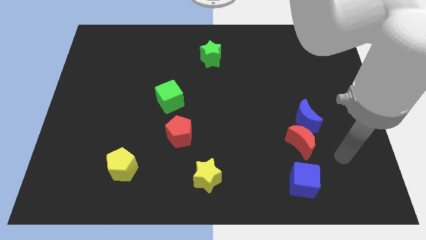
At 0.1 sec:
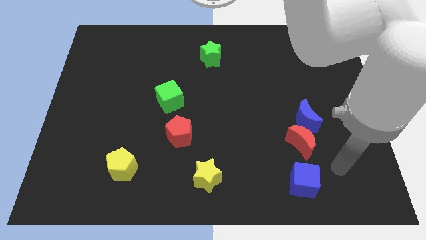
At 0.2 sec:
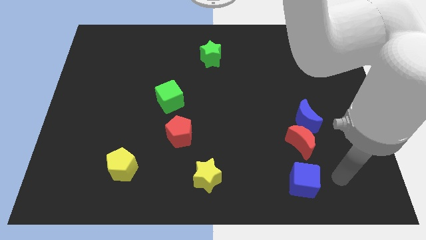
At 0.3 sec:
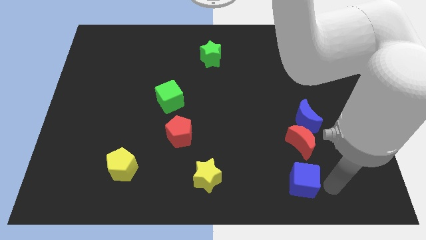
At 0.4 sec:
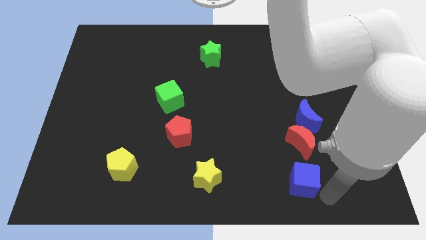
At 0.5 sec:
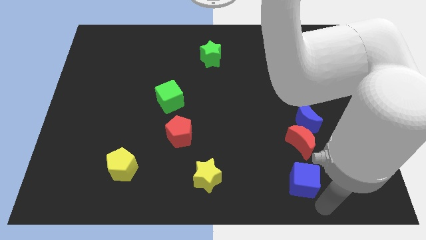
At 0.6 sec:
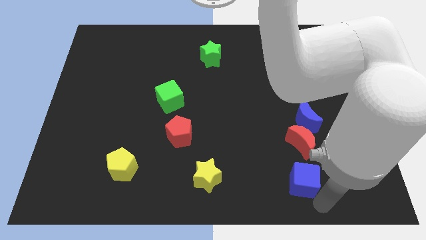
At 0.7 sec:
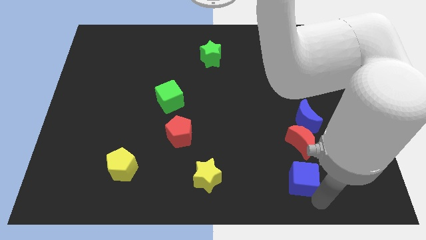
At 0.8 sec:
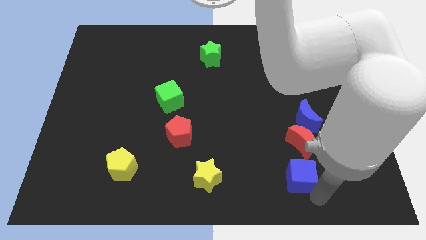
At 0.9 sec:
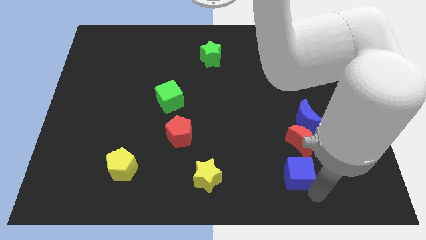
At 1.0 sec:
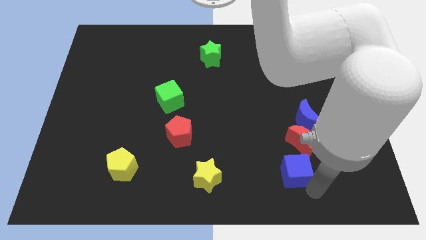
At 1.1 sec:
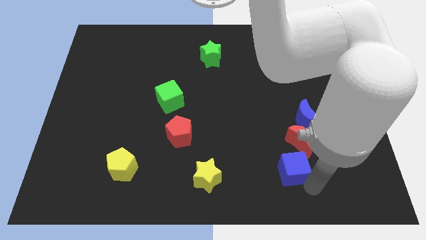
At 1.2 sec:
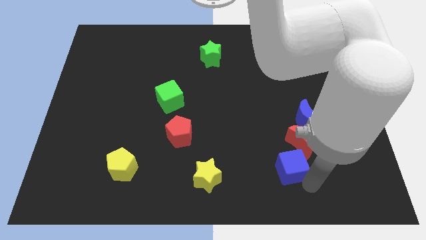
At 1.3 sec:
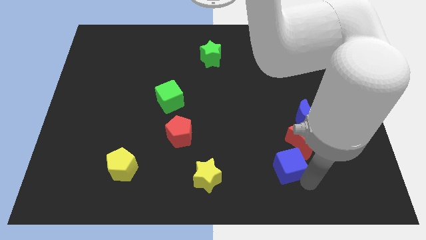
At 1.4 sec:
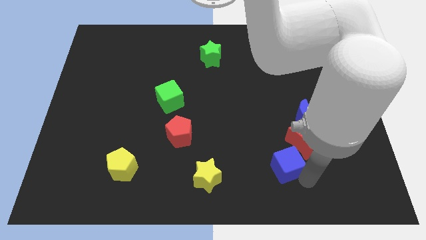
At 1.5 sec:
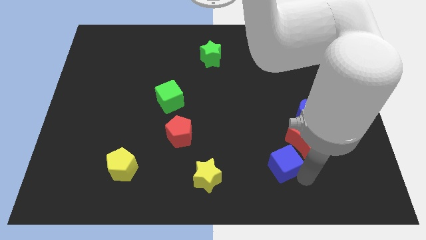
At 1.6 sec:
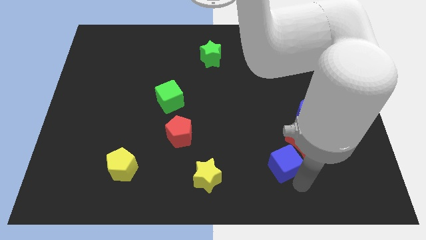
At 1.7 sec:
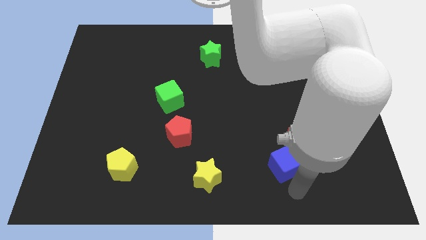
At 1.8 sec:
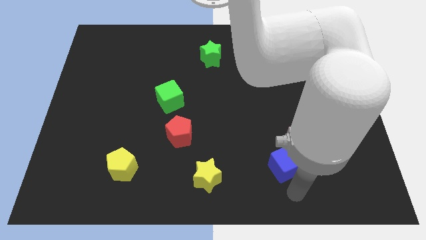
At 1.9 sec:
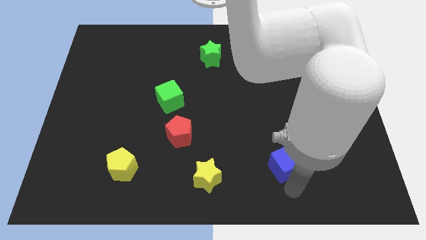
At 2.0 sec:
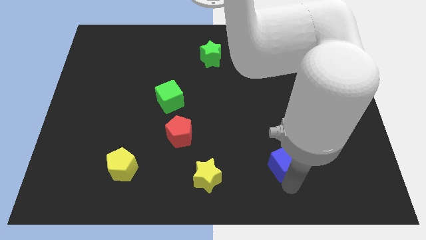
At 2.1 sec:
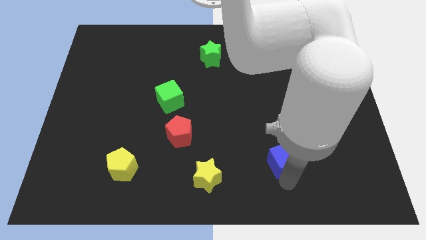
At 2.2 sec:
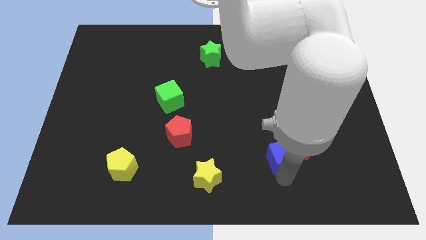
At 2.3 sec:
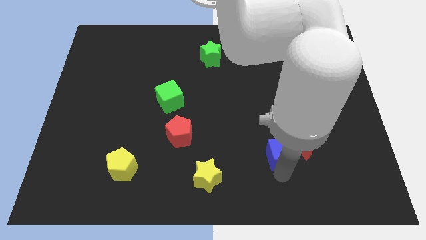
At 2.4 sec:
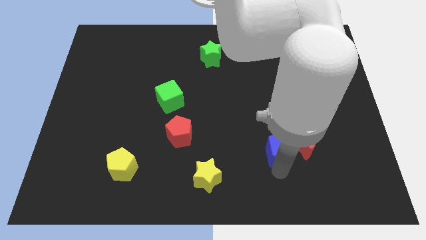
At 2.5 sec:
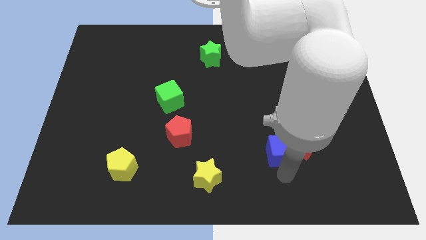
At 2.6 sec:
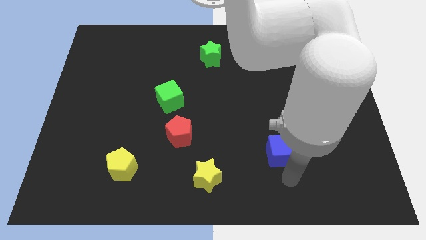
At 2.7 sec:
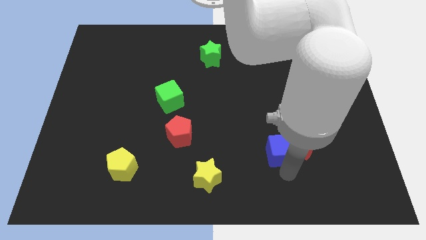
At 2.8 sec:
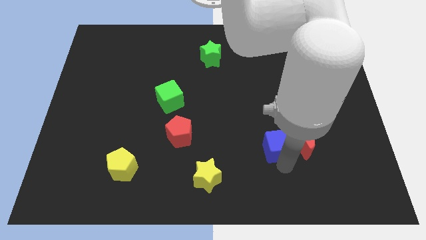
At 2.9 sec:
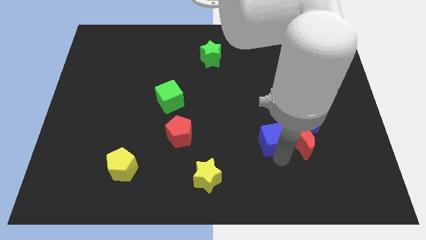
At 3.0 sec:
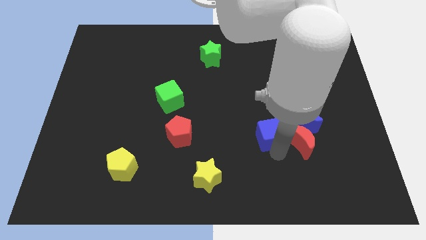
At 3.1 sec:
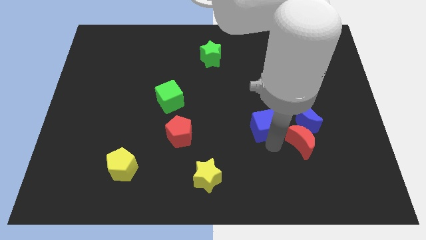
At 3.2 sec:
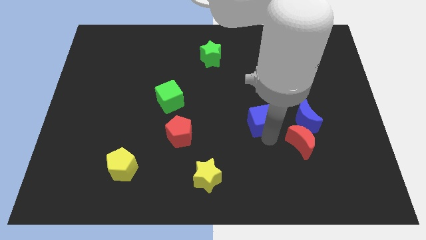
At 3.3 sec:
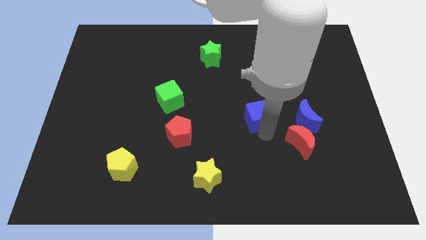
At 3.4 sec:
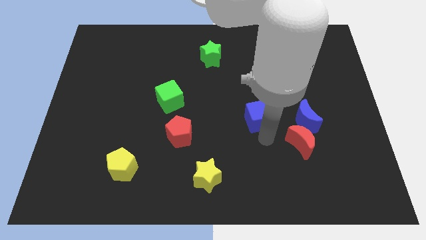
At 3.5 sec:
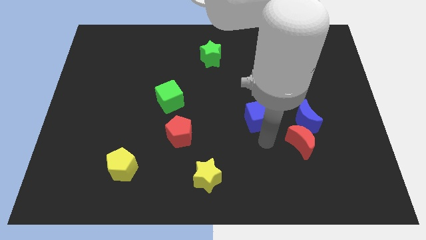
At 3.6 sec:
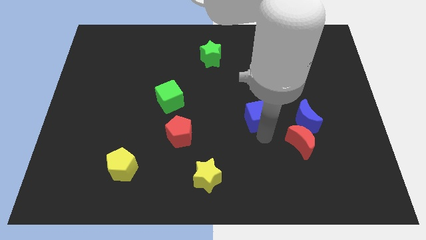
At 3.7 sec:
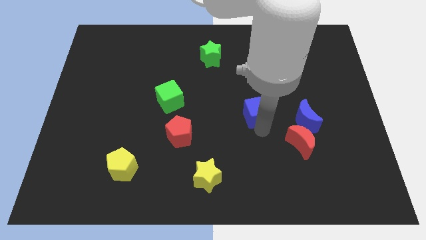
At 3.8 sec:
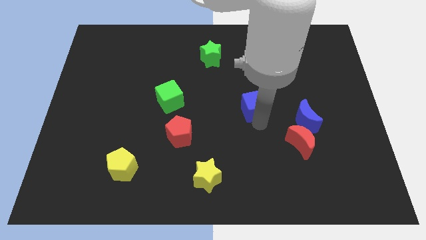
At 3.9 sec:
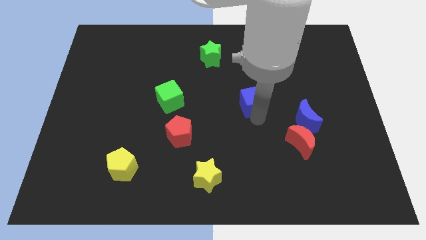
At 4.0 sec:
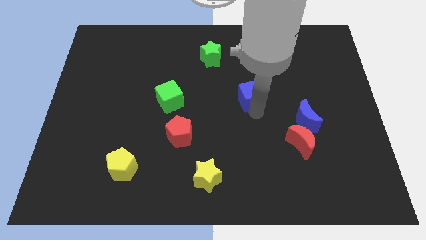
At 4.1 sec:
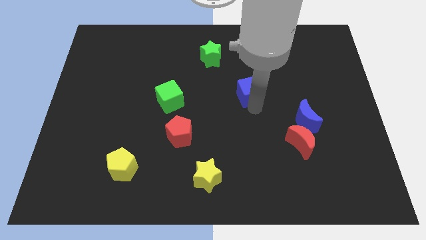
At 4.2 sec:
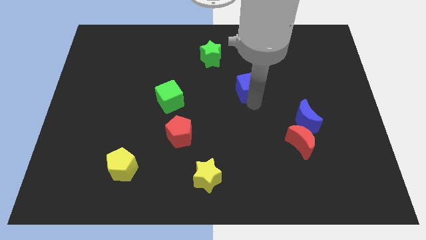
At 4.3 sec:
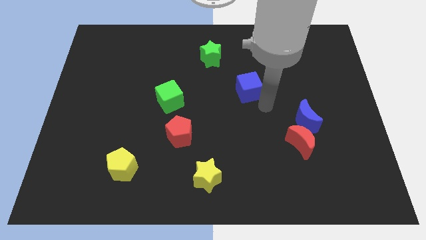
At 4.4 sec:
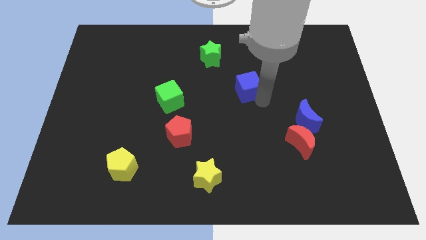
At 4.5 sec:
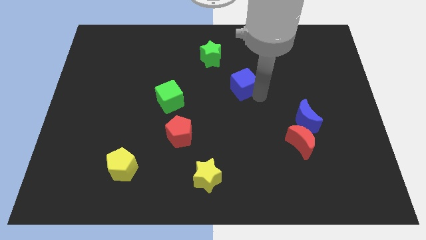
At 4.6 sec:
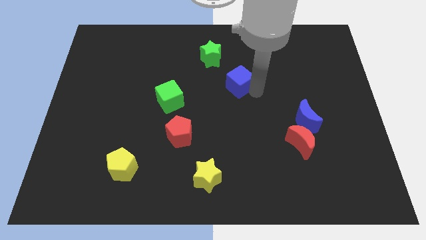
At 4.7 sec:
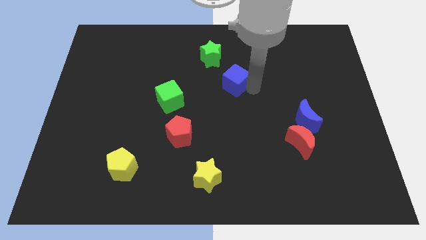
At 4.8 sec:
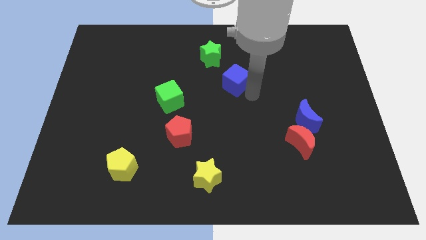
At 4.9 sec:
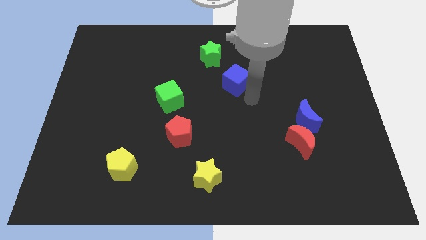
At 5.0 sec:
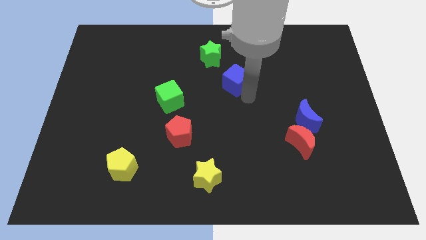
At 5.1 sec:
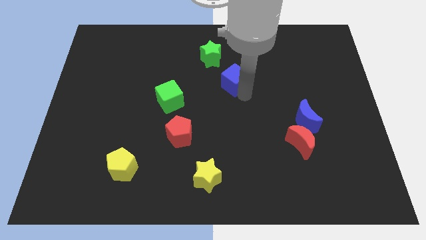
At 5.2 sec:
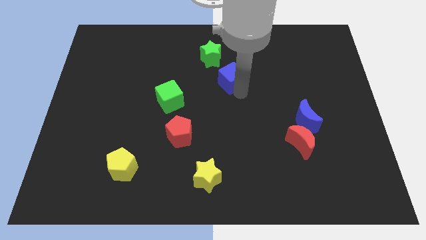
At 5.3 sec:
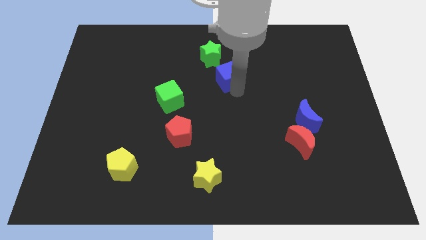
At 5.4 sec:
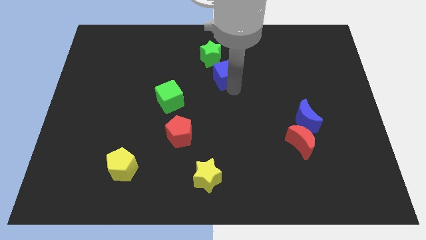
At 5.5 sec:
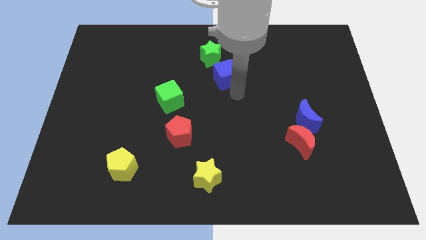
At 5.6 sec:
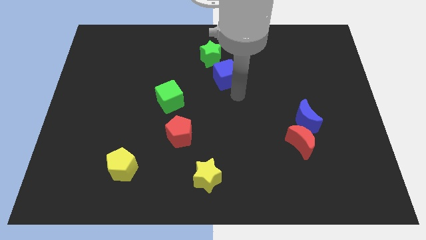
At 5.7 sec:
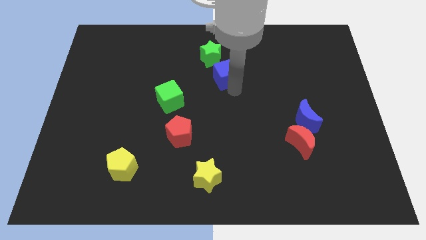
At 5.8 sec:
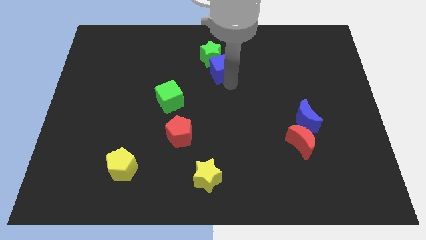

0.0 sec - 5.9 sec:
slide the blue cube close to the green star

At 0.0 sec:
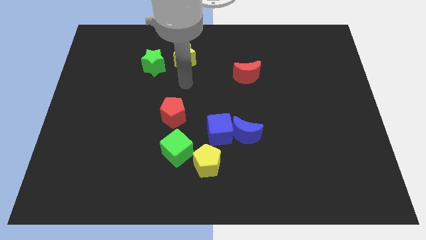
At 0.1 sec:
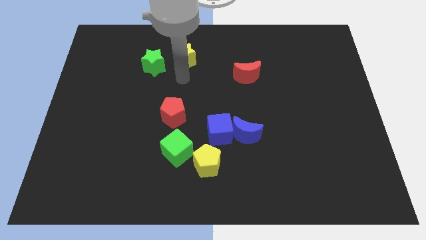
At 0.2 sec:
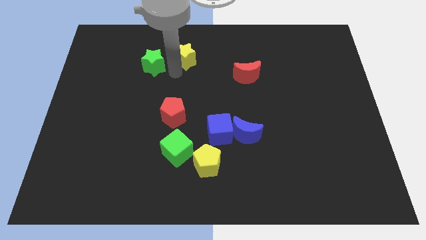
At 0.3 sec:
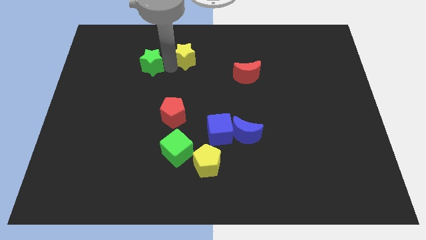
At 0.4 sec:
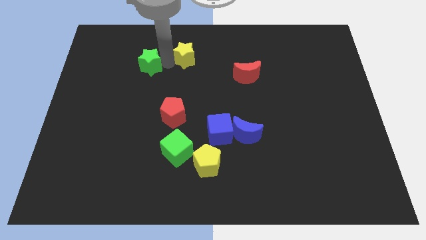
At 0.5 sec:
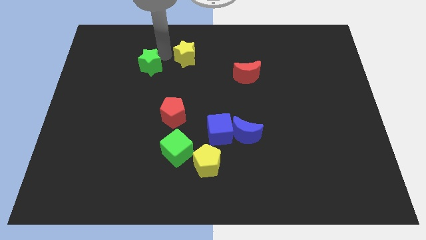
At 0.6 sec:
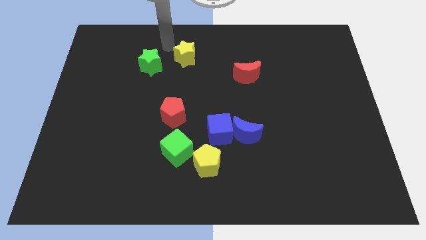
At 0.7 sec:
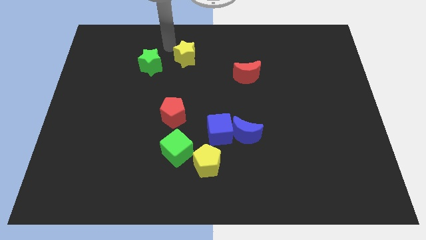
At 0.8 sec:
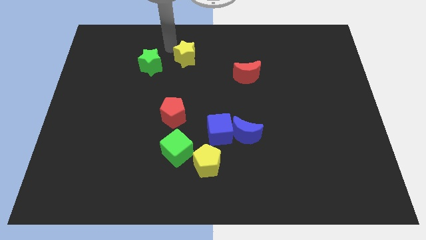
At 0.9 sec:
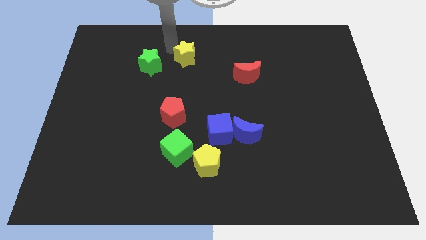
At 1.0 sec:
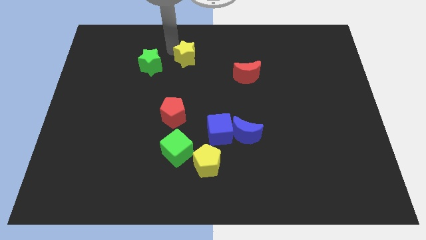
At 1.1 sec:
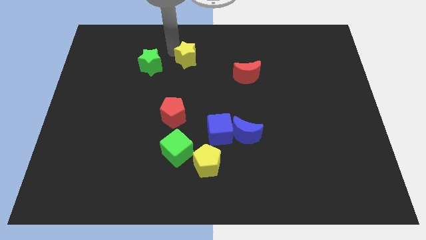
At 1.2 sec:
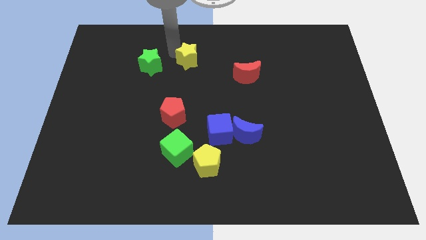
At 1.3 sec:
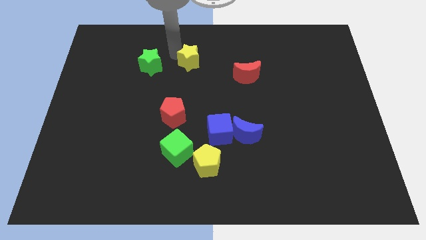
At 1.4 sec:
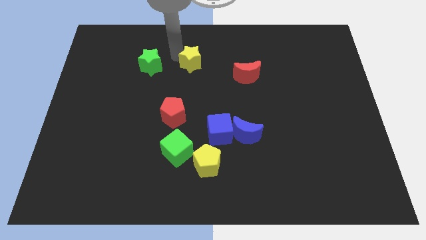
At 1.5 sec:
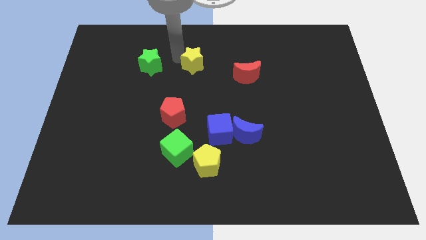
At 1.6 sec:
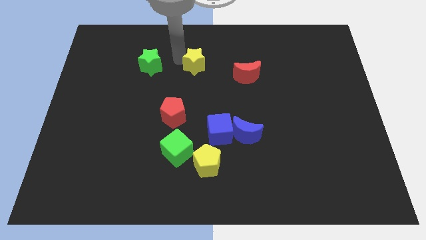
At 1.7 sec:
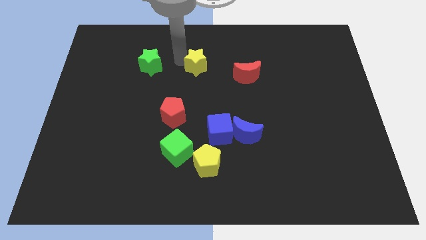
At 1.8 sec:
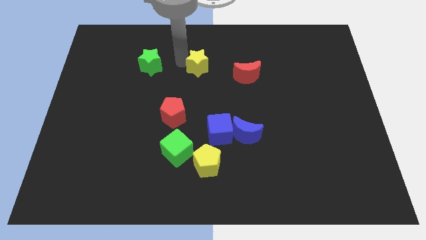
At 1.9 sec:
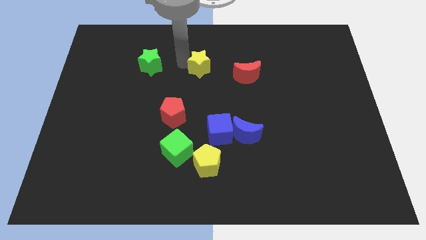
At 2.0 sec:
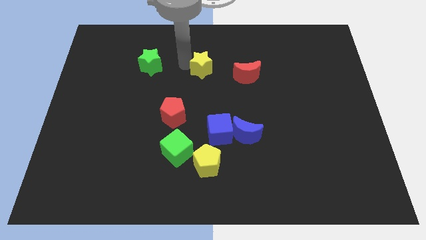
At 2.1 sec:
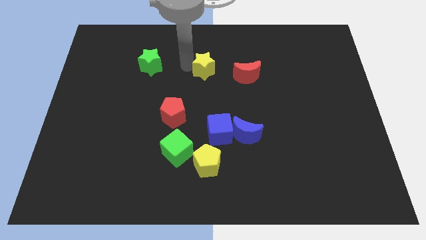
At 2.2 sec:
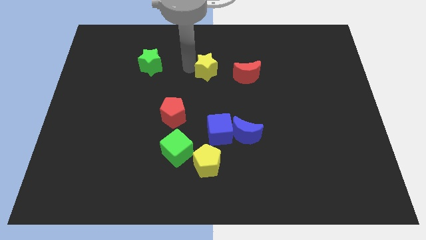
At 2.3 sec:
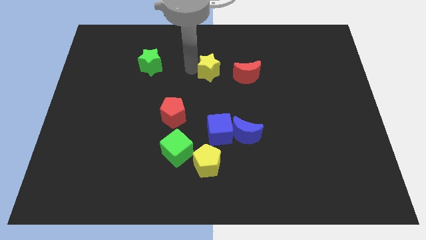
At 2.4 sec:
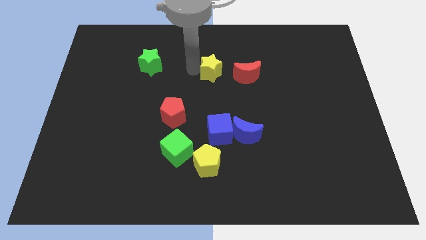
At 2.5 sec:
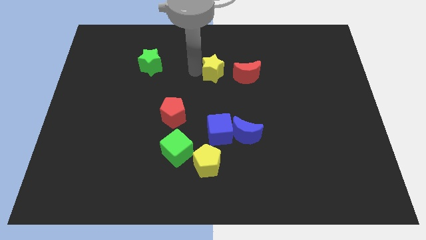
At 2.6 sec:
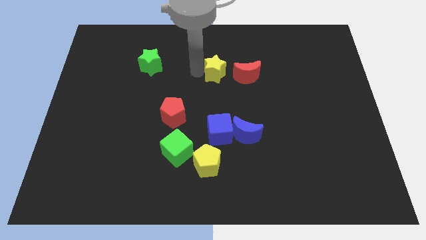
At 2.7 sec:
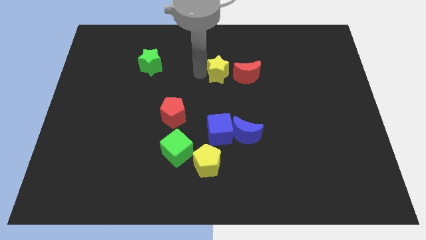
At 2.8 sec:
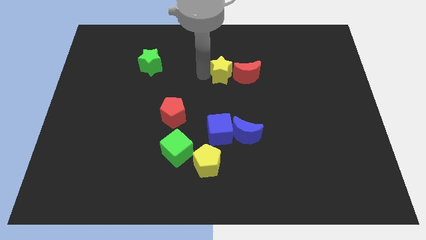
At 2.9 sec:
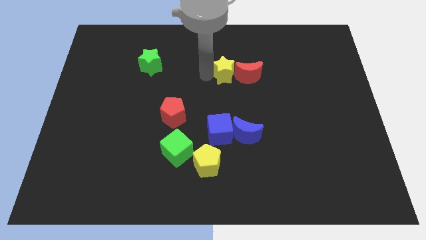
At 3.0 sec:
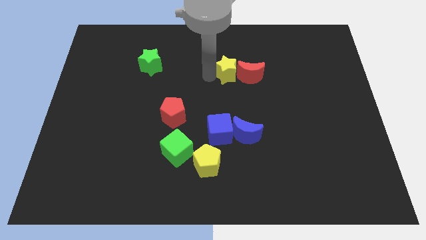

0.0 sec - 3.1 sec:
put the yellow star to the red moon
